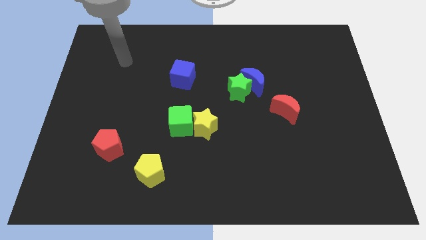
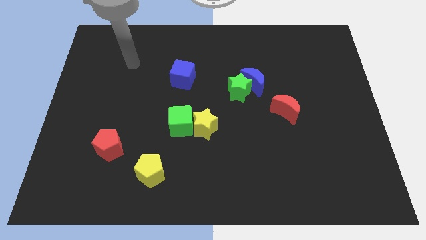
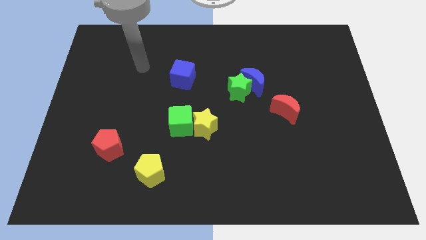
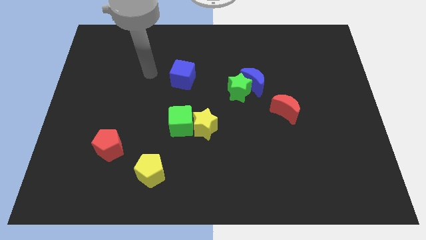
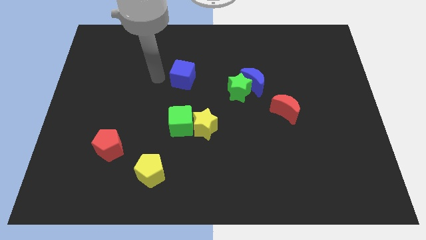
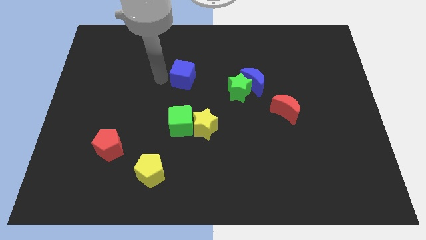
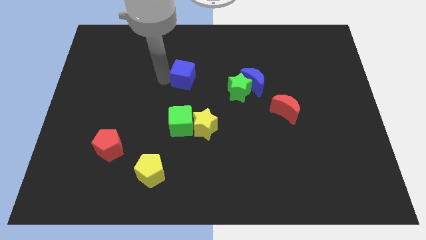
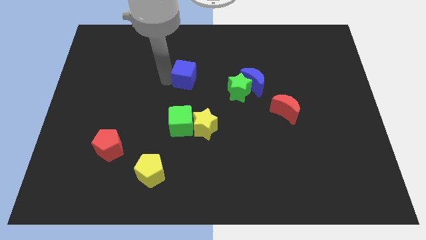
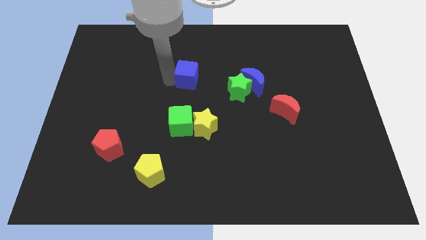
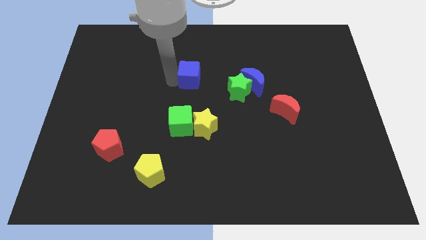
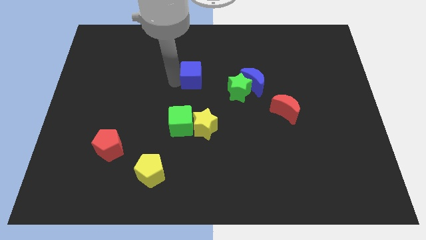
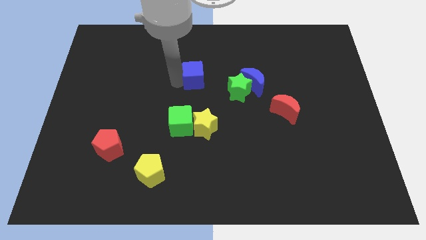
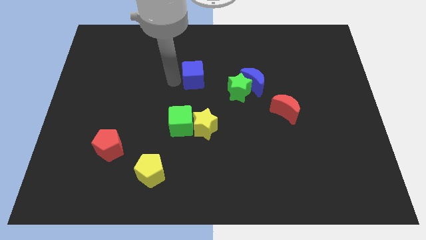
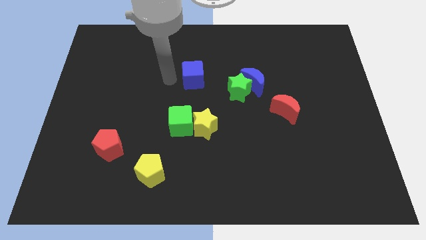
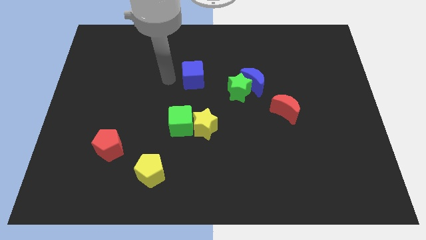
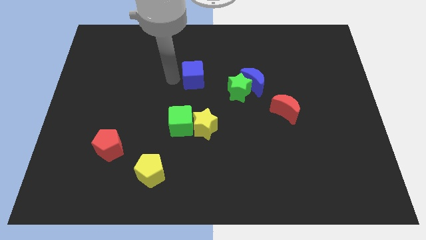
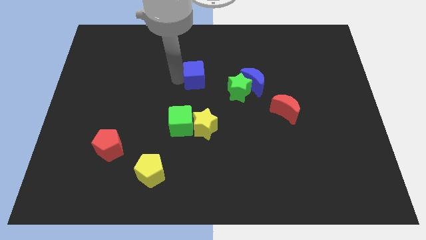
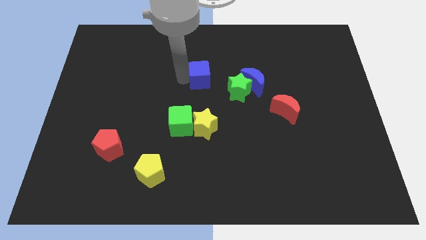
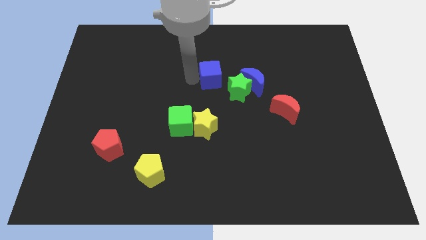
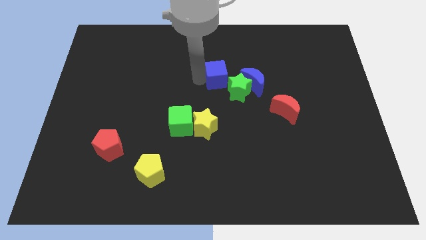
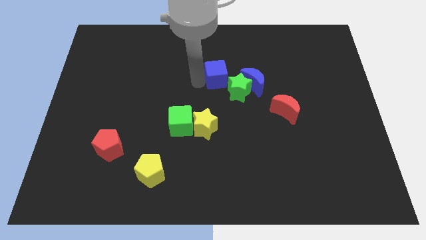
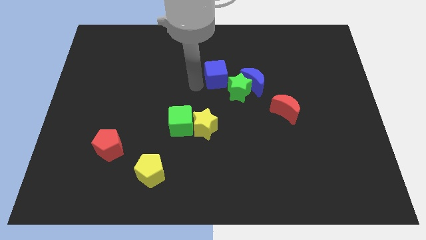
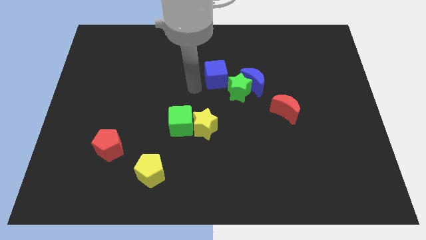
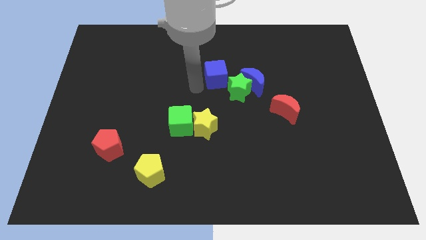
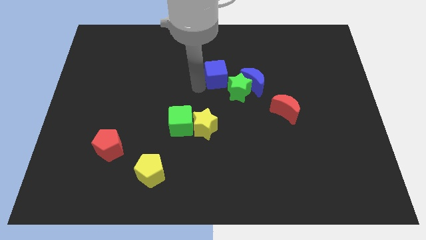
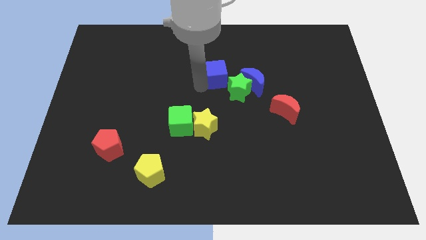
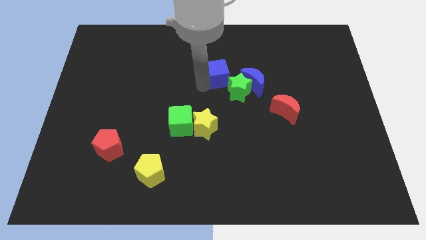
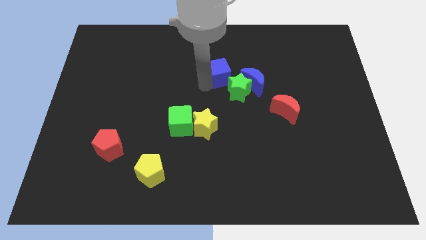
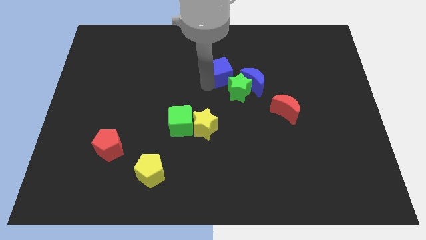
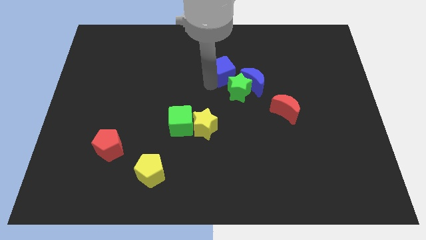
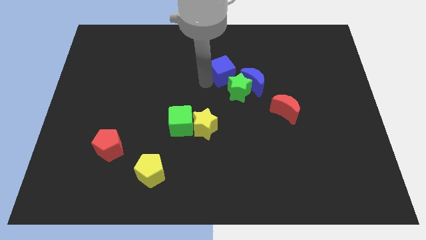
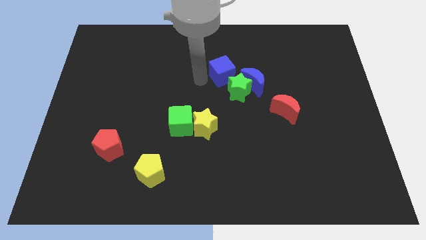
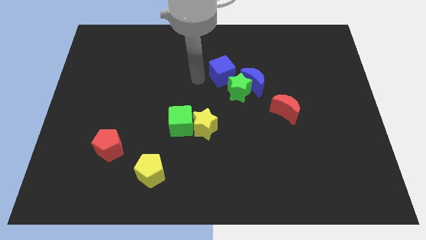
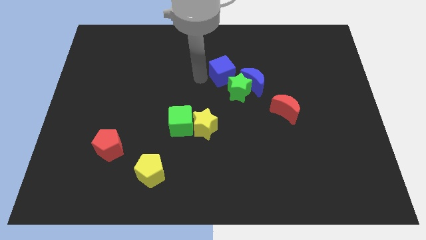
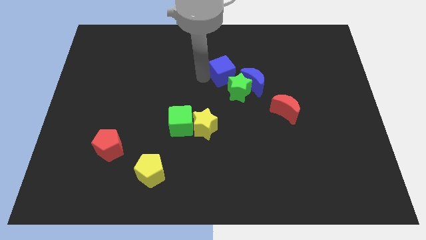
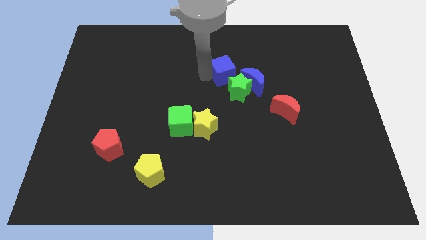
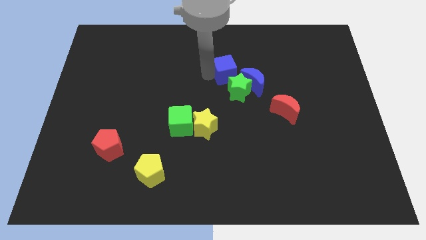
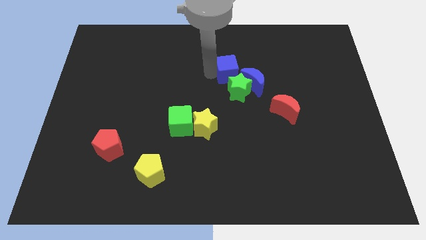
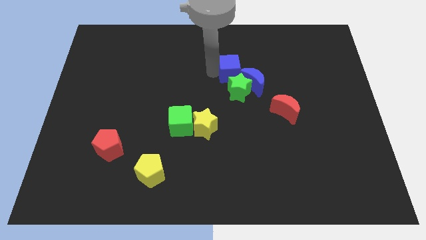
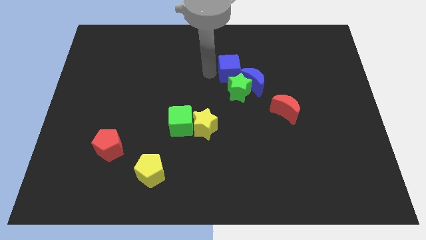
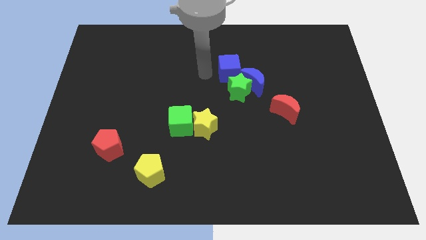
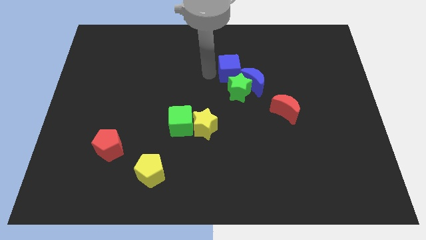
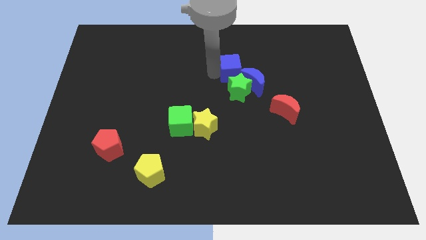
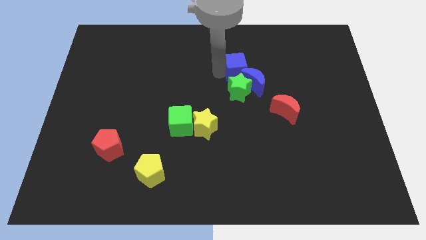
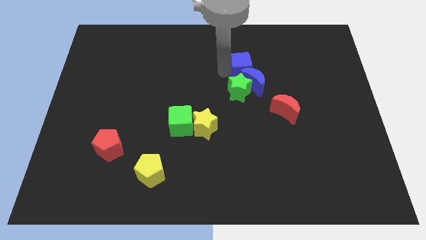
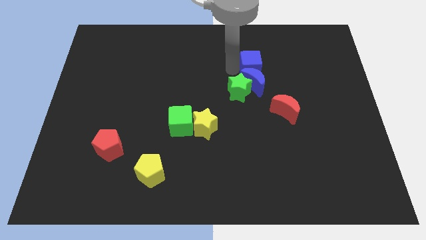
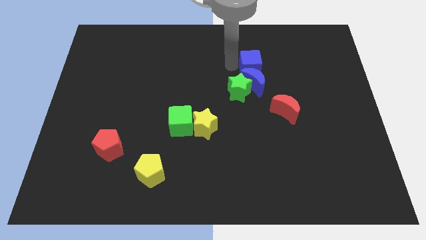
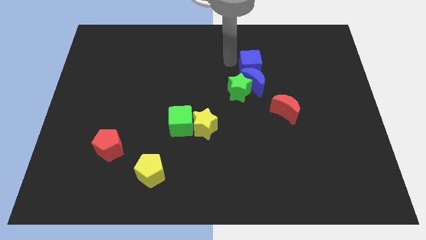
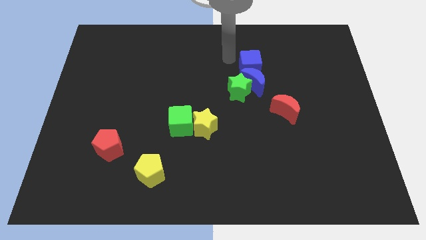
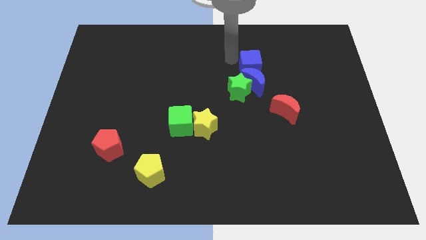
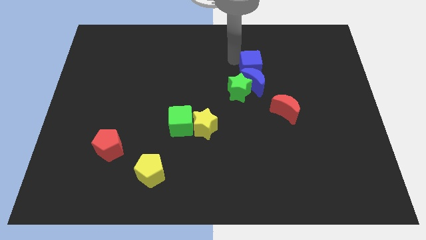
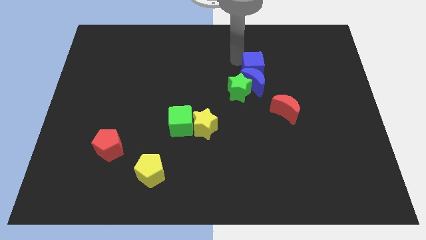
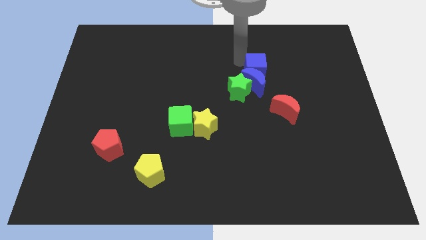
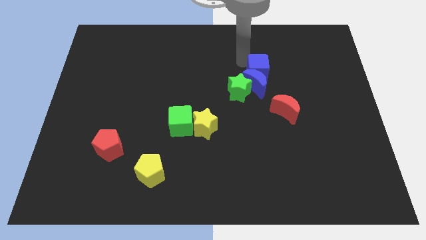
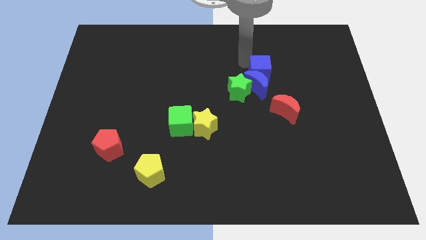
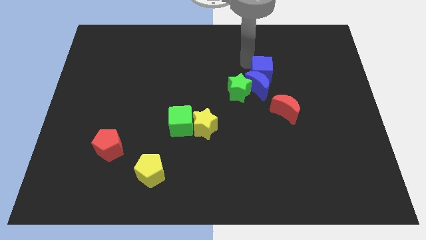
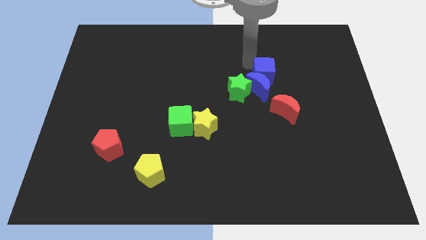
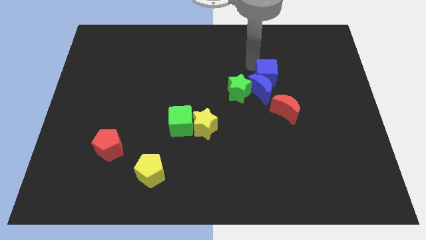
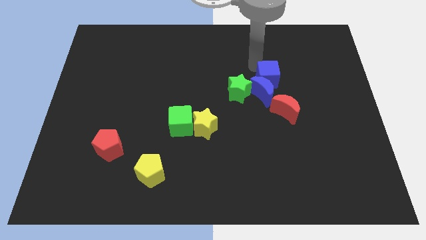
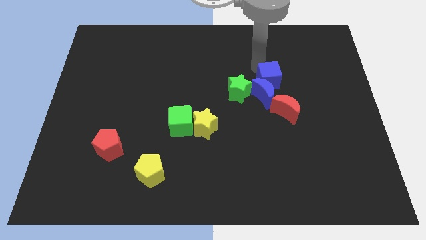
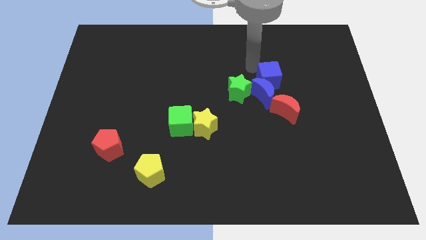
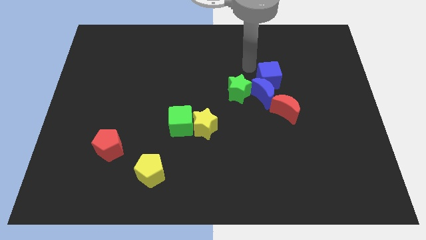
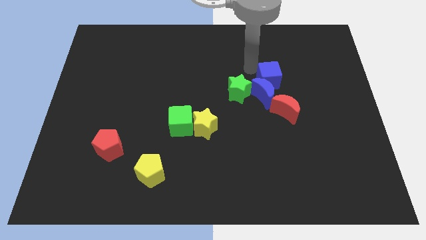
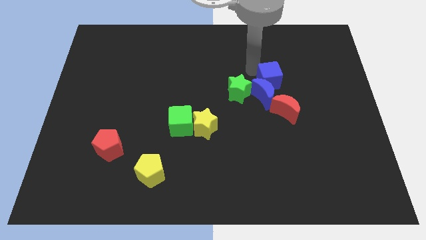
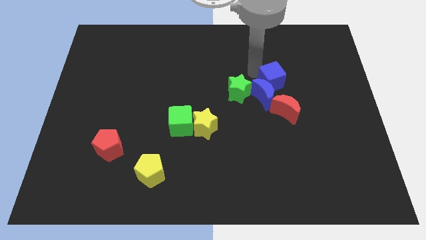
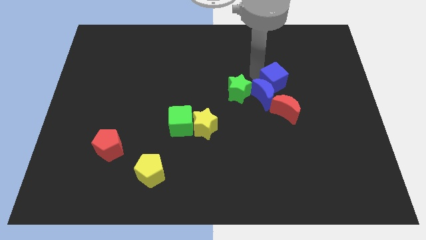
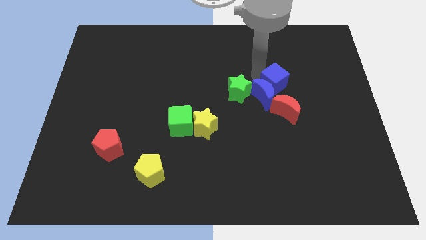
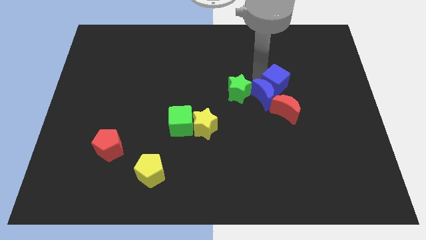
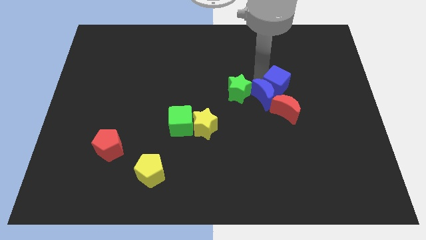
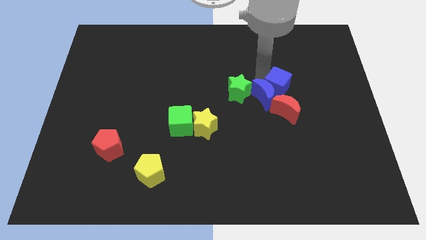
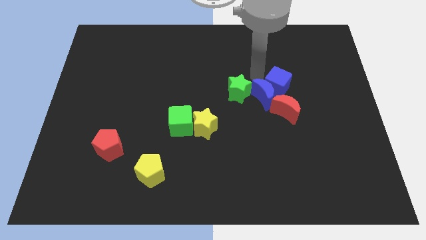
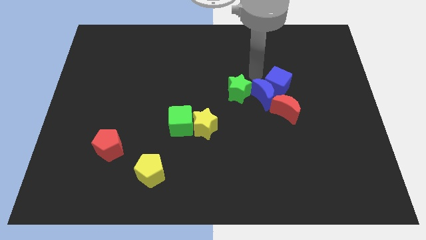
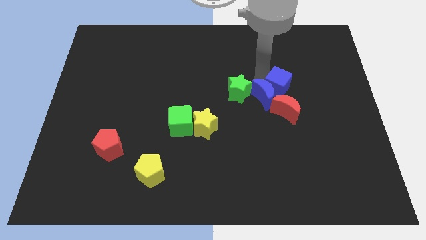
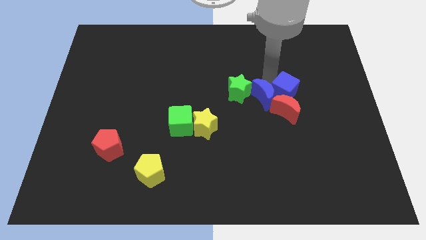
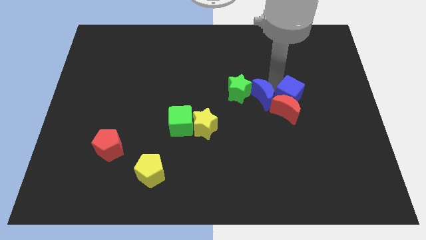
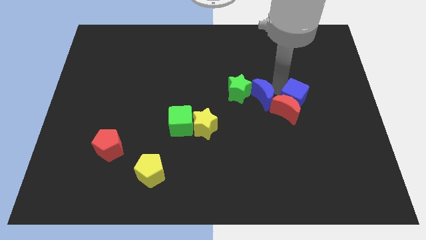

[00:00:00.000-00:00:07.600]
put the blue cube to the right of the red moon
